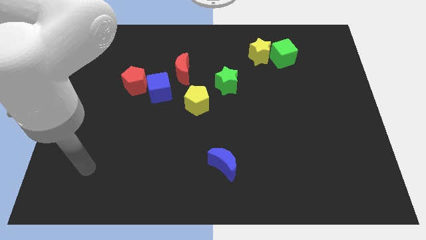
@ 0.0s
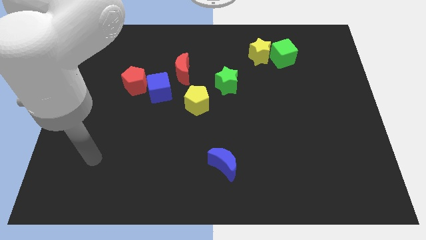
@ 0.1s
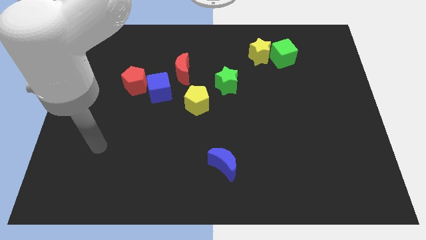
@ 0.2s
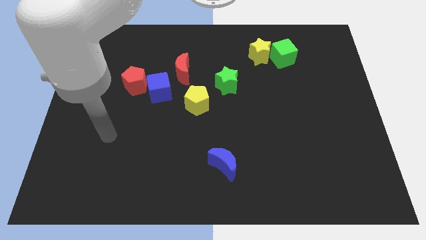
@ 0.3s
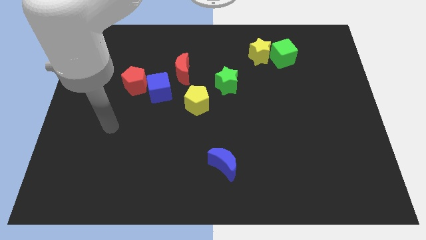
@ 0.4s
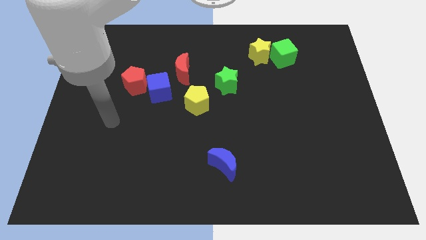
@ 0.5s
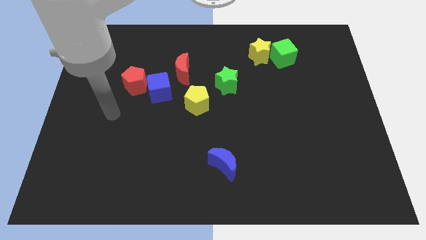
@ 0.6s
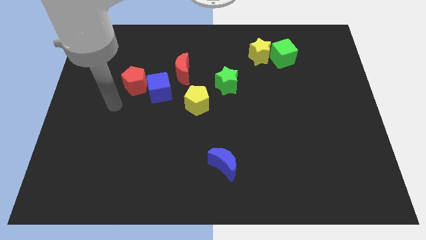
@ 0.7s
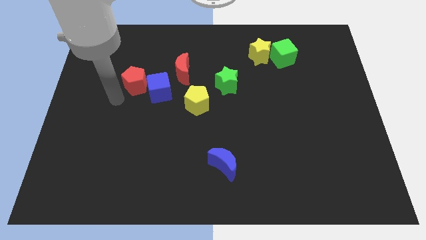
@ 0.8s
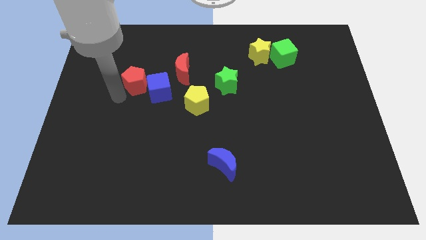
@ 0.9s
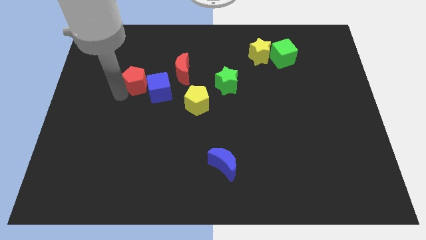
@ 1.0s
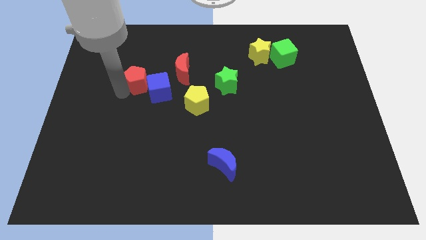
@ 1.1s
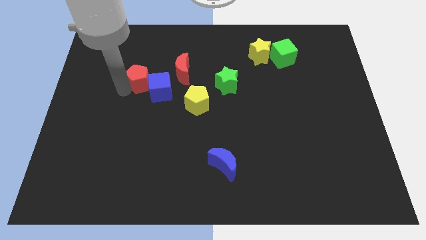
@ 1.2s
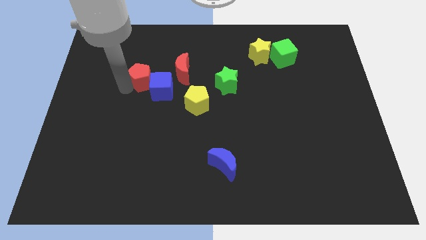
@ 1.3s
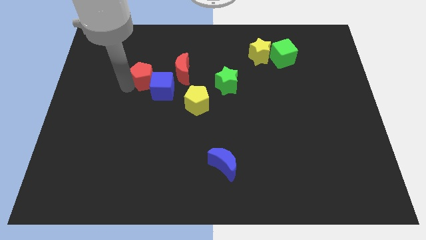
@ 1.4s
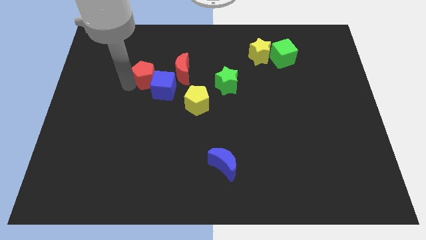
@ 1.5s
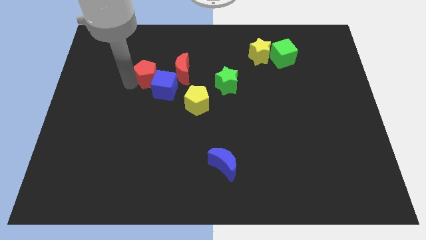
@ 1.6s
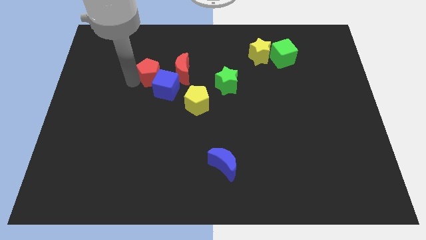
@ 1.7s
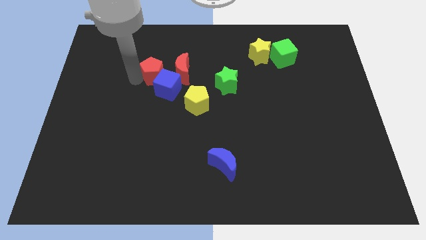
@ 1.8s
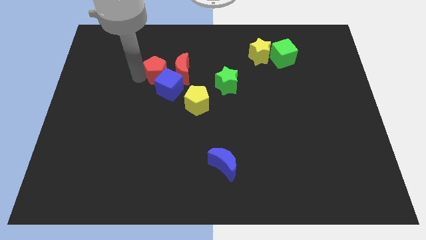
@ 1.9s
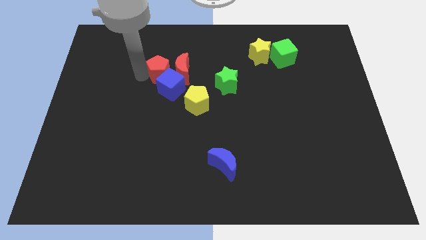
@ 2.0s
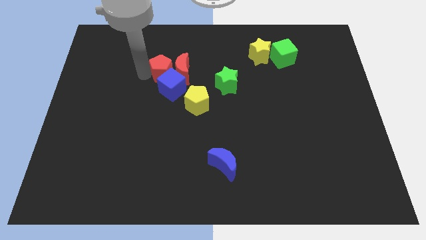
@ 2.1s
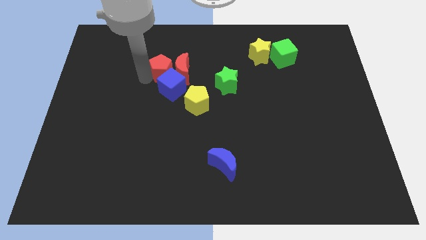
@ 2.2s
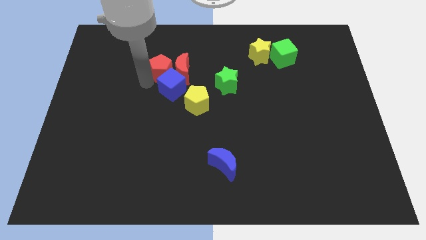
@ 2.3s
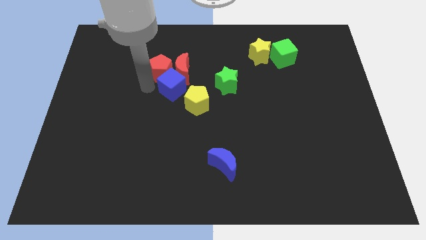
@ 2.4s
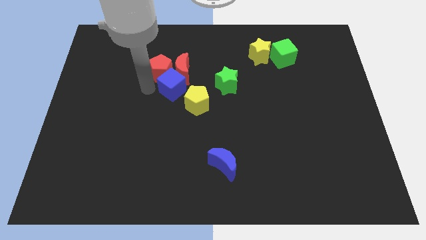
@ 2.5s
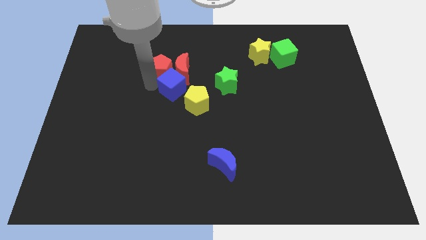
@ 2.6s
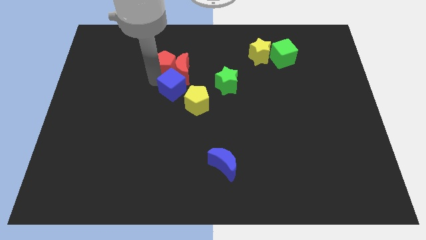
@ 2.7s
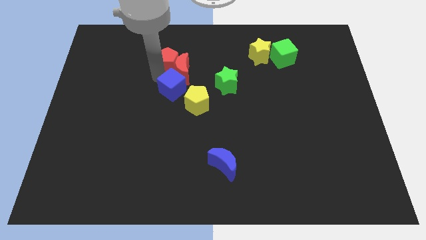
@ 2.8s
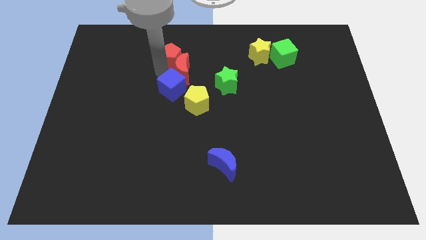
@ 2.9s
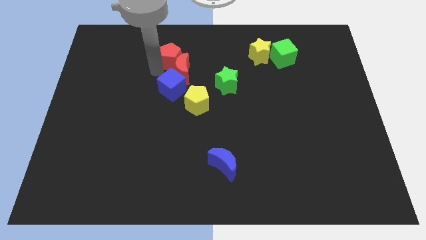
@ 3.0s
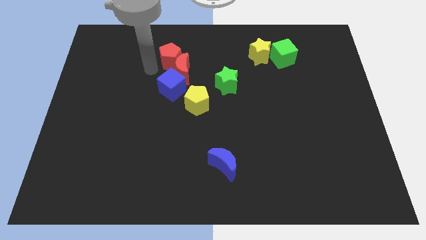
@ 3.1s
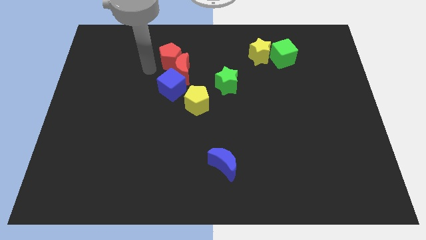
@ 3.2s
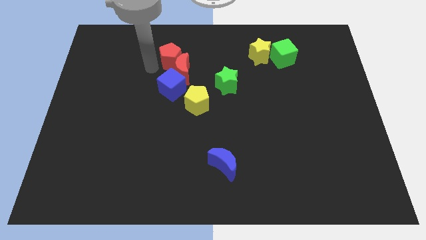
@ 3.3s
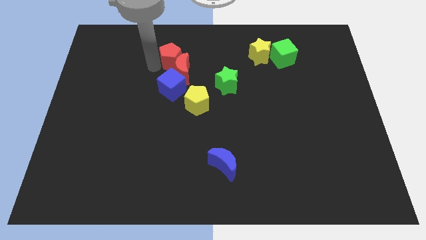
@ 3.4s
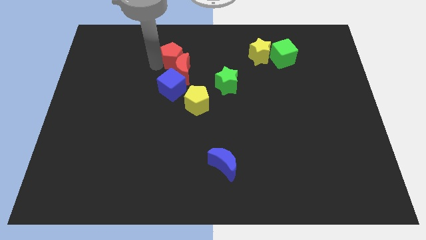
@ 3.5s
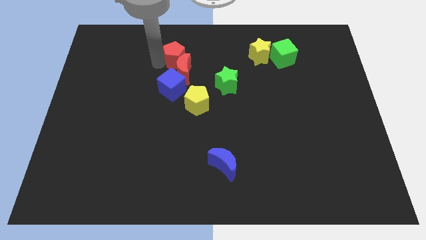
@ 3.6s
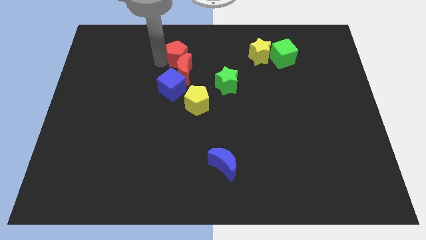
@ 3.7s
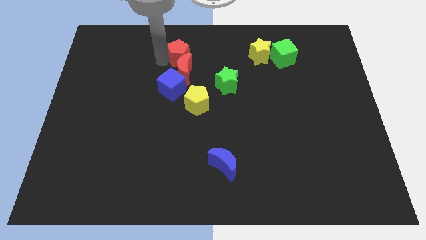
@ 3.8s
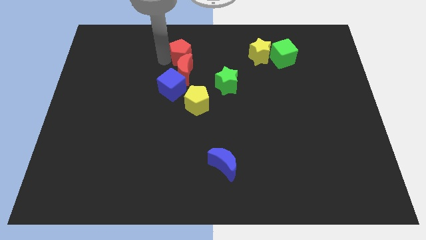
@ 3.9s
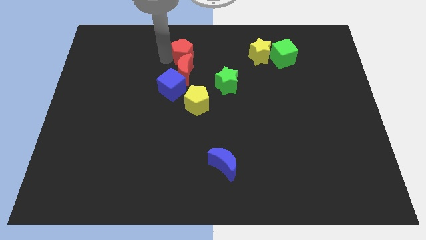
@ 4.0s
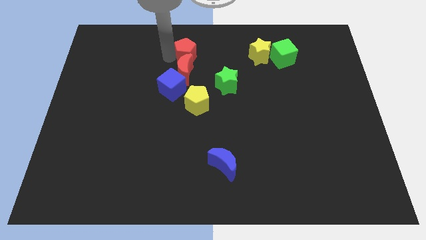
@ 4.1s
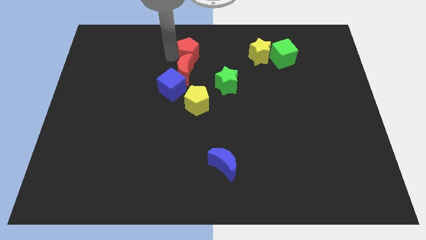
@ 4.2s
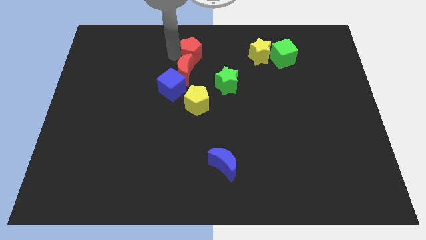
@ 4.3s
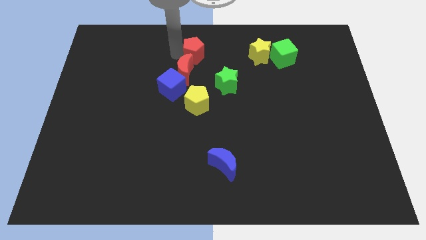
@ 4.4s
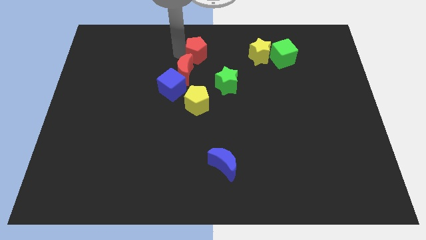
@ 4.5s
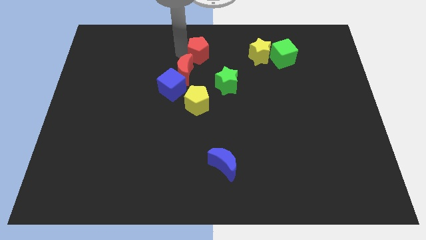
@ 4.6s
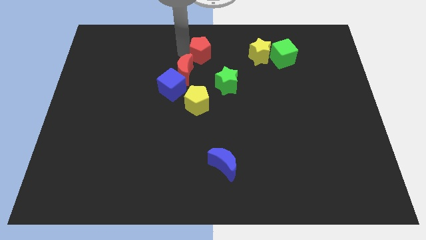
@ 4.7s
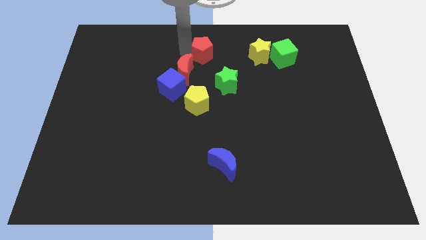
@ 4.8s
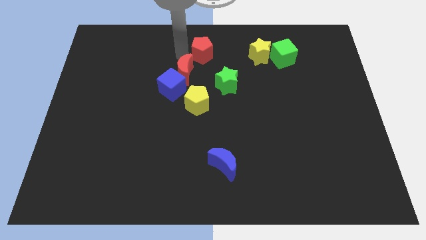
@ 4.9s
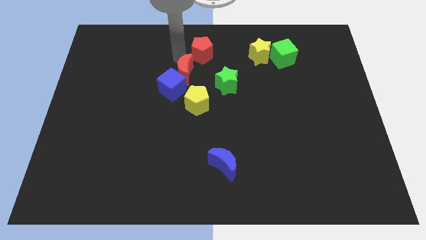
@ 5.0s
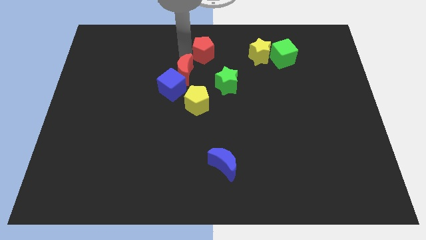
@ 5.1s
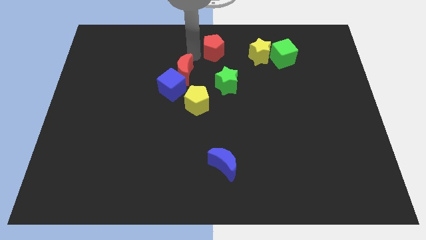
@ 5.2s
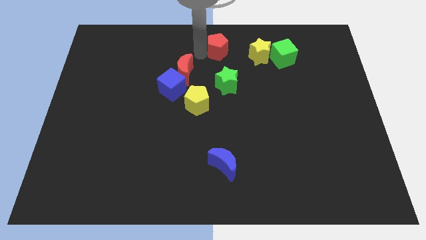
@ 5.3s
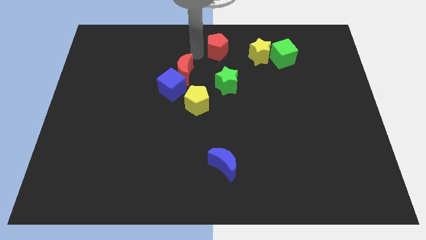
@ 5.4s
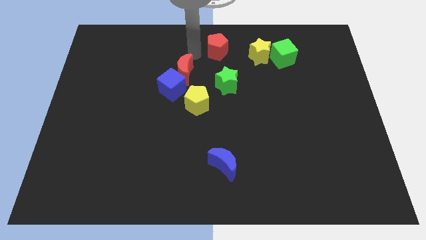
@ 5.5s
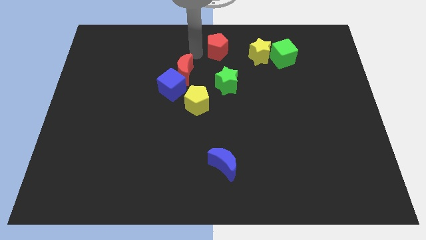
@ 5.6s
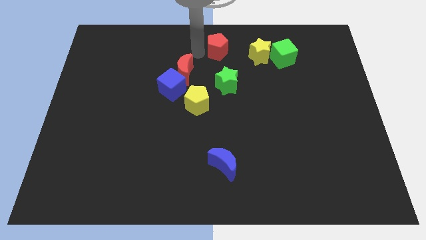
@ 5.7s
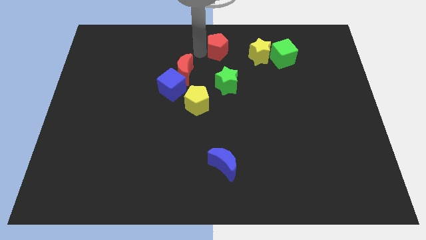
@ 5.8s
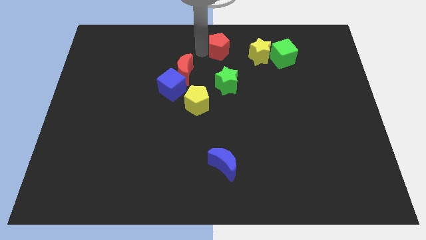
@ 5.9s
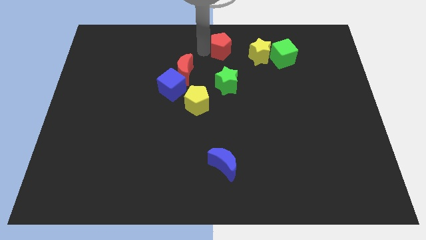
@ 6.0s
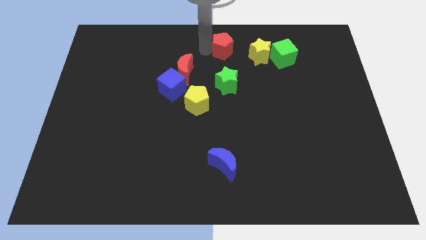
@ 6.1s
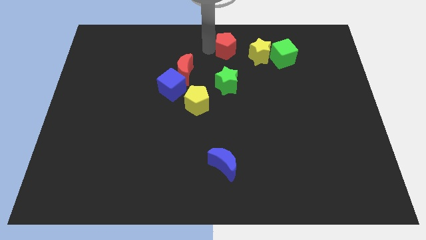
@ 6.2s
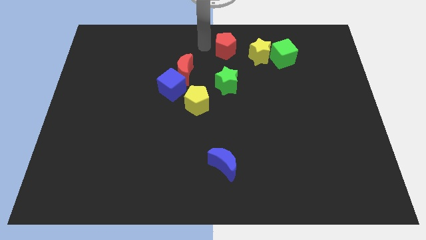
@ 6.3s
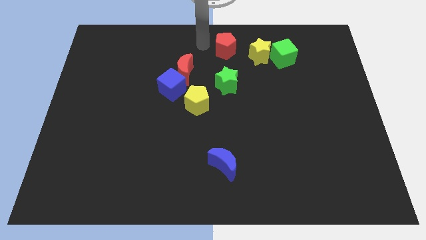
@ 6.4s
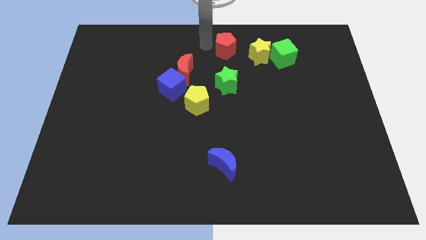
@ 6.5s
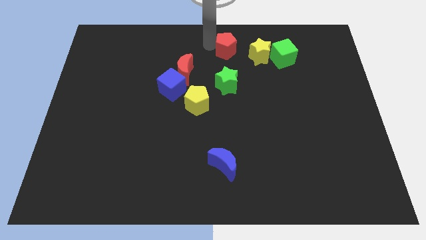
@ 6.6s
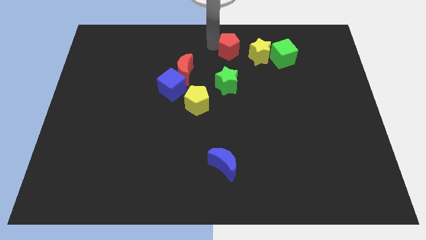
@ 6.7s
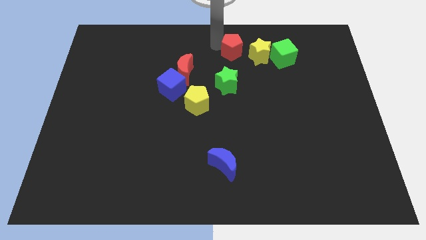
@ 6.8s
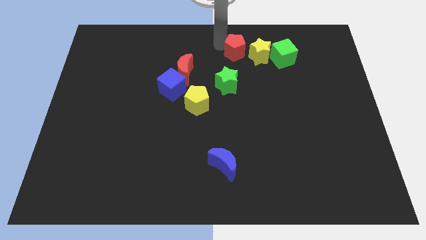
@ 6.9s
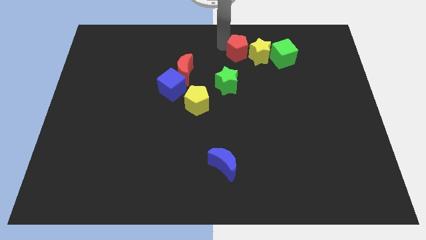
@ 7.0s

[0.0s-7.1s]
move the red pentagon next to the yellow star

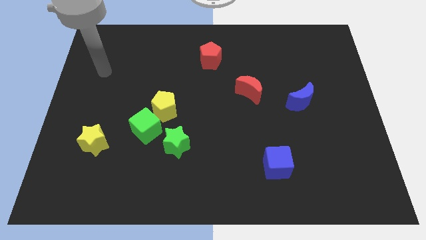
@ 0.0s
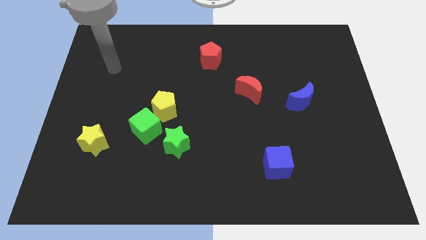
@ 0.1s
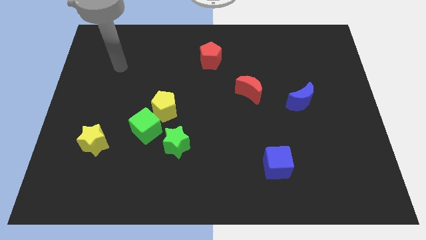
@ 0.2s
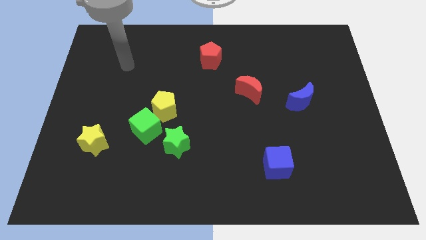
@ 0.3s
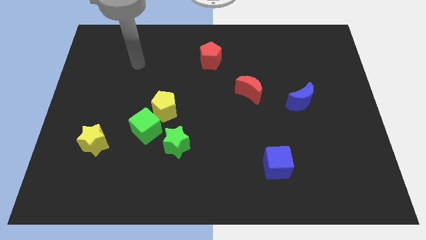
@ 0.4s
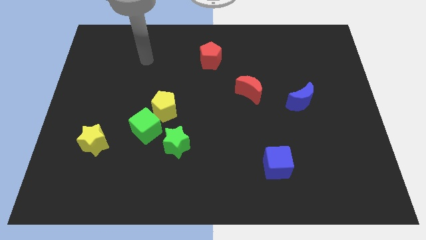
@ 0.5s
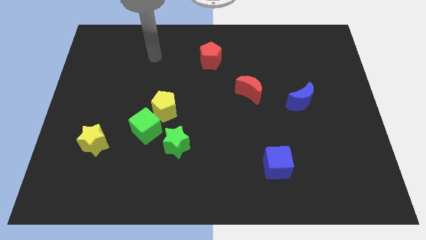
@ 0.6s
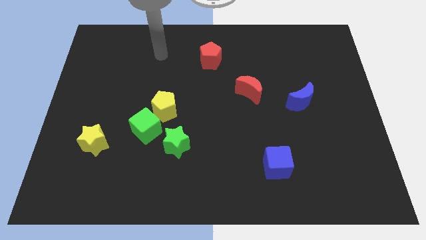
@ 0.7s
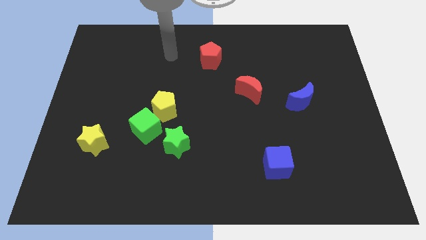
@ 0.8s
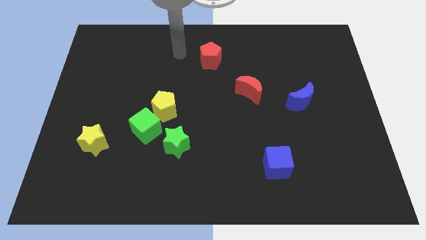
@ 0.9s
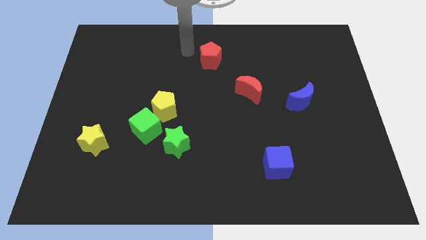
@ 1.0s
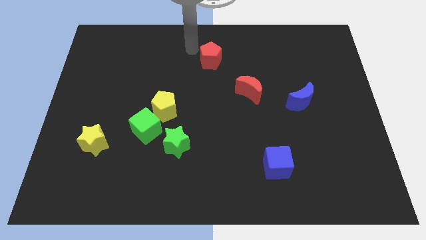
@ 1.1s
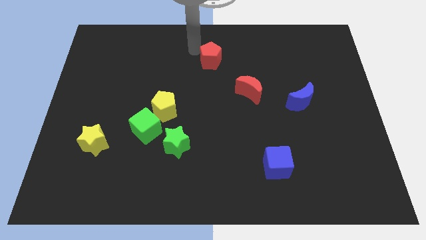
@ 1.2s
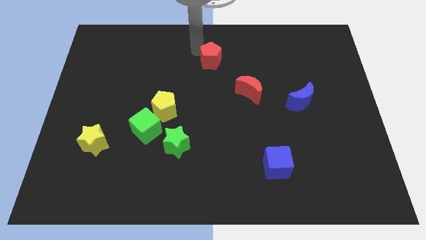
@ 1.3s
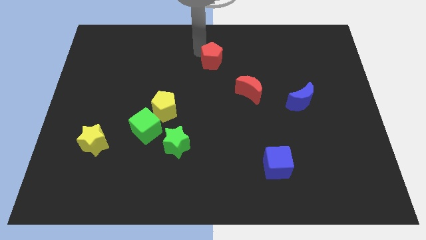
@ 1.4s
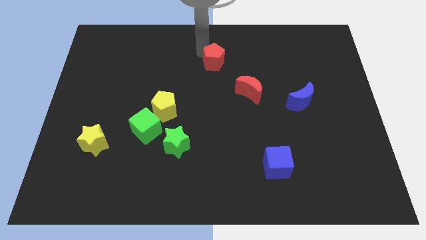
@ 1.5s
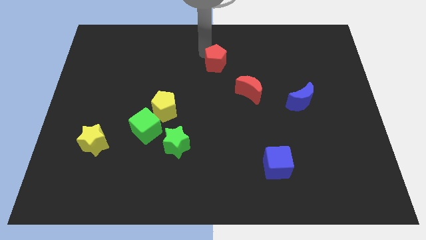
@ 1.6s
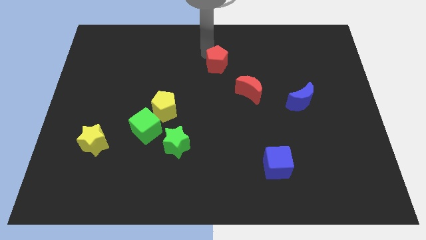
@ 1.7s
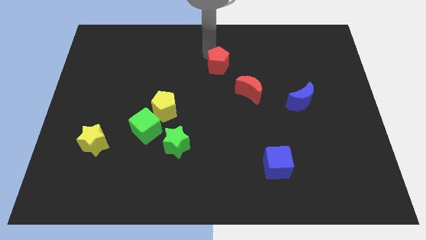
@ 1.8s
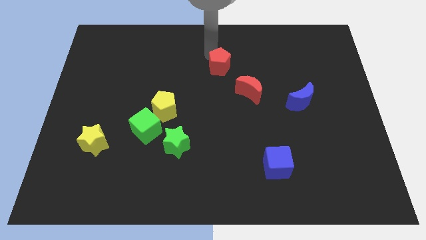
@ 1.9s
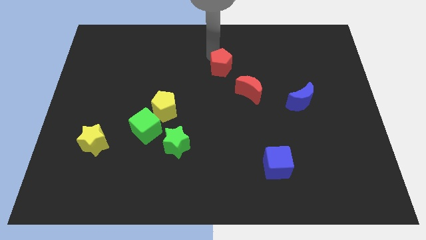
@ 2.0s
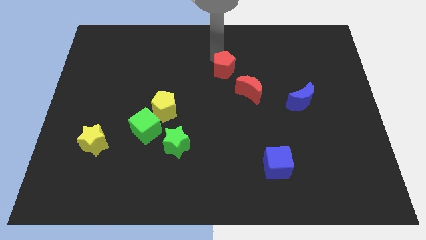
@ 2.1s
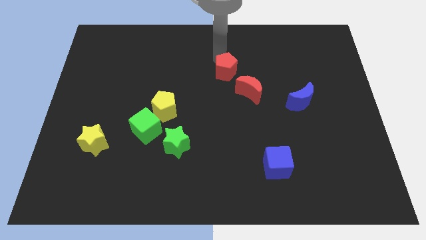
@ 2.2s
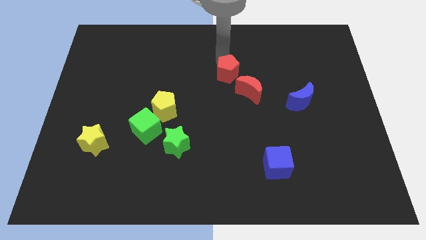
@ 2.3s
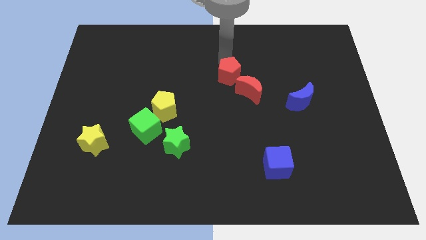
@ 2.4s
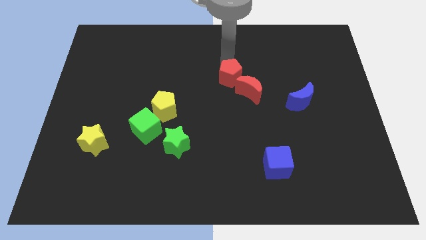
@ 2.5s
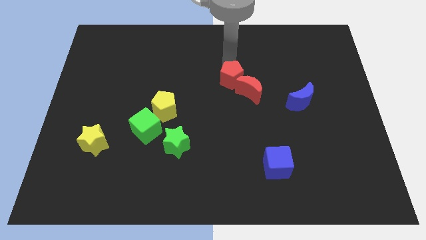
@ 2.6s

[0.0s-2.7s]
put the red pentagon close to the red moon
